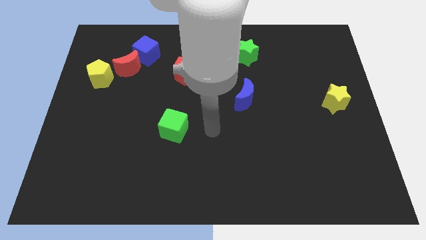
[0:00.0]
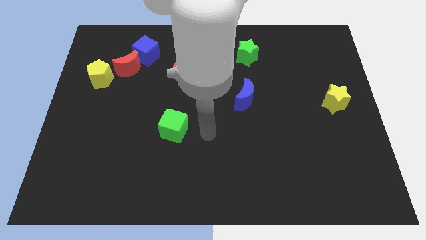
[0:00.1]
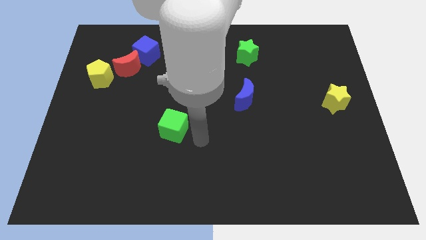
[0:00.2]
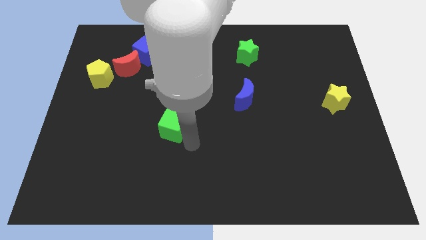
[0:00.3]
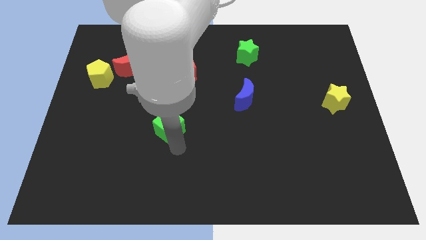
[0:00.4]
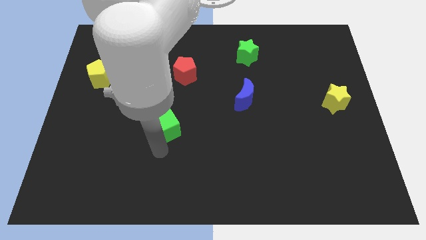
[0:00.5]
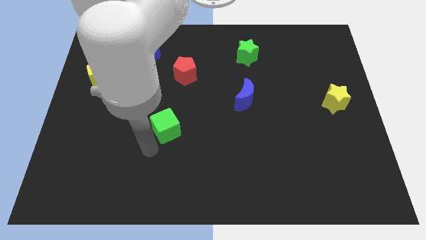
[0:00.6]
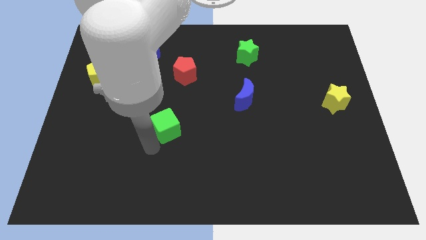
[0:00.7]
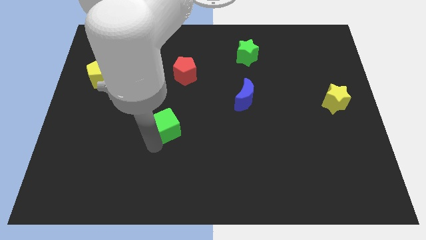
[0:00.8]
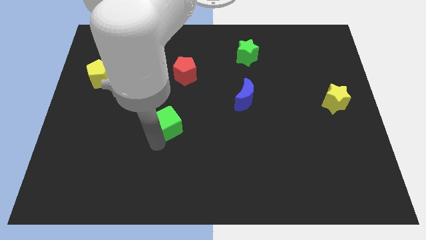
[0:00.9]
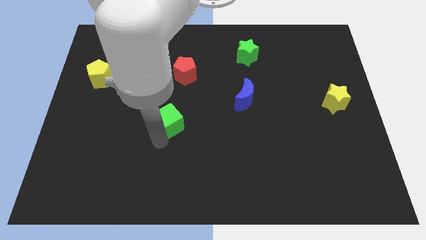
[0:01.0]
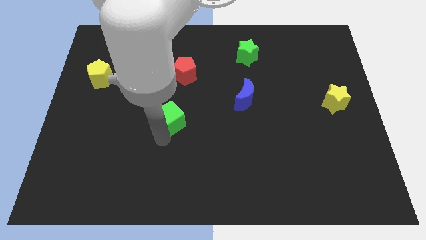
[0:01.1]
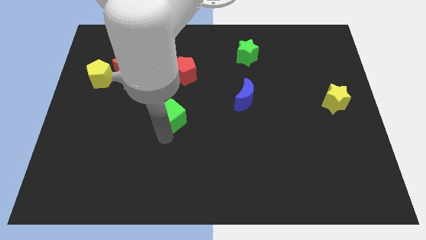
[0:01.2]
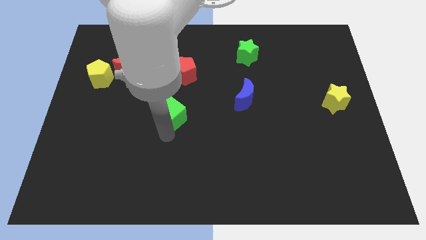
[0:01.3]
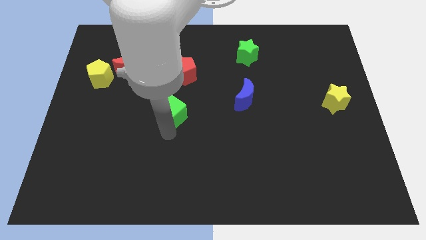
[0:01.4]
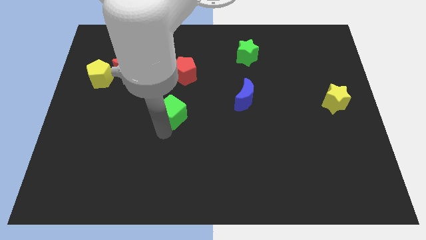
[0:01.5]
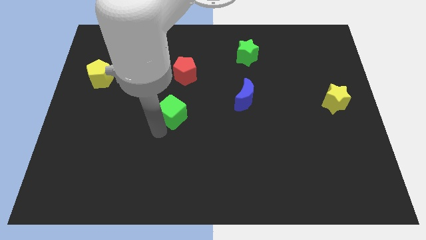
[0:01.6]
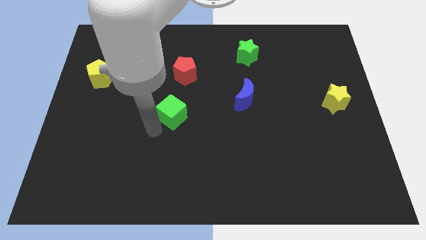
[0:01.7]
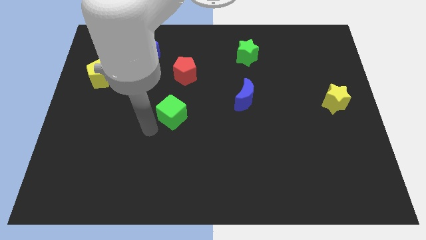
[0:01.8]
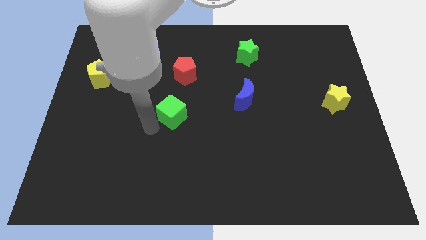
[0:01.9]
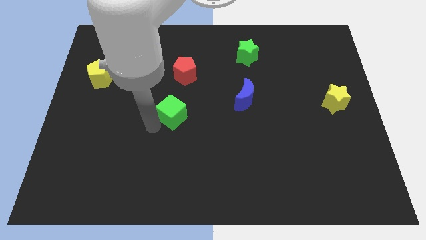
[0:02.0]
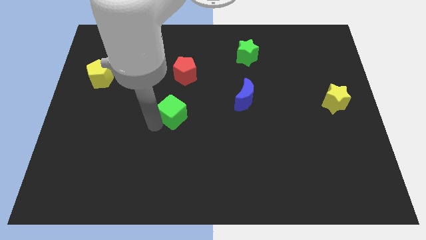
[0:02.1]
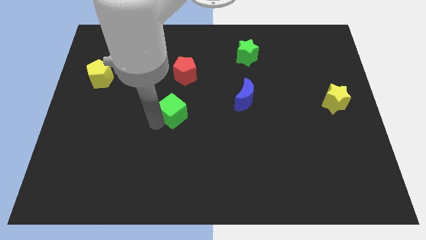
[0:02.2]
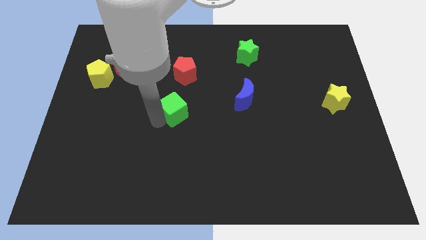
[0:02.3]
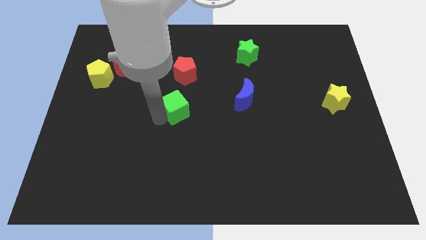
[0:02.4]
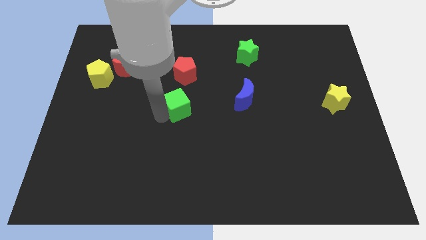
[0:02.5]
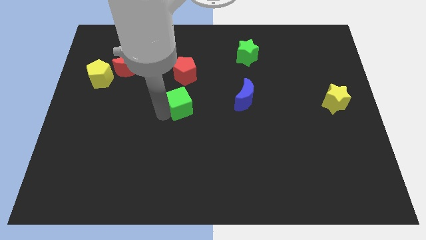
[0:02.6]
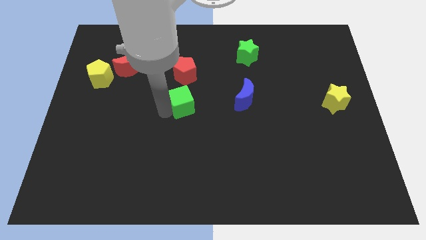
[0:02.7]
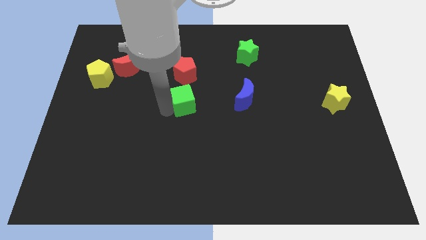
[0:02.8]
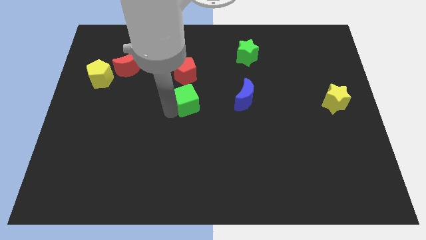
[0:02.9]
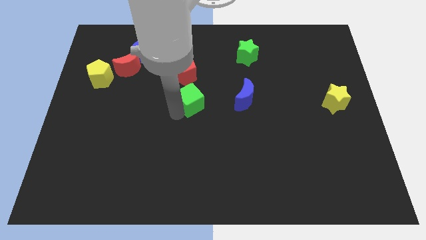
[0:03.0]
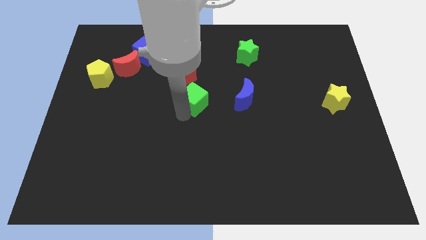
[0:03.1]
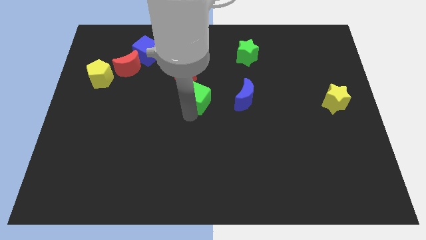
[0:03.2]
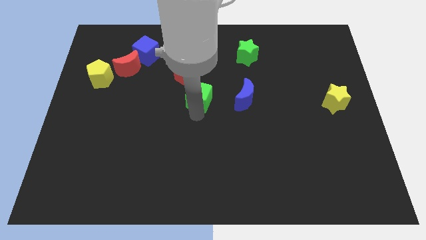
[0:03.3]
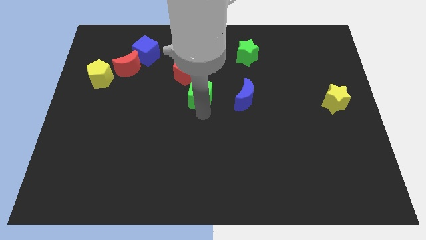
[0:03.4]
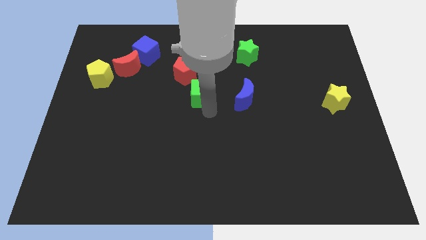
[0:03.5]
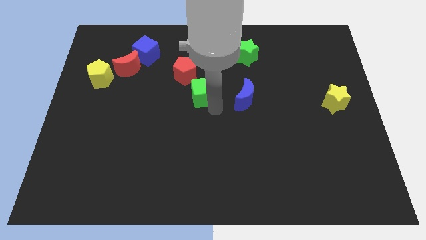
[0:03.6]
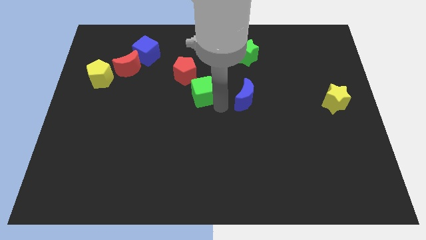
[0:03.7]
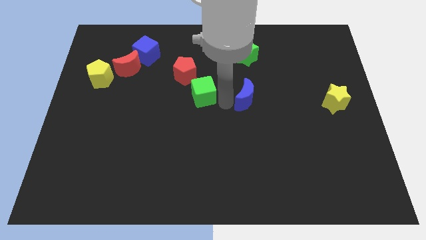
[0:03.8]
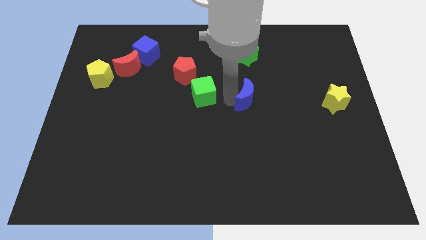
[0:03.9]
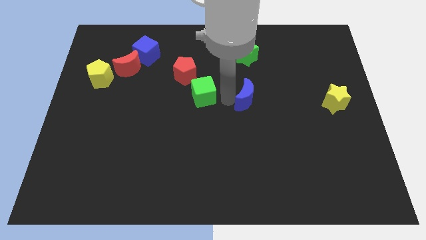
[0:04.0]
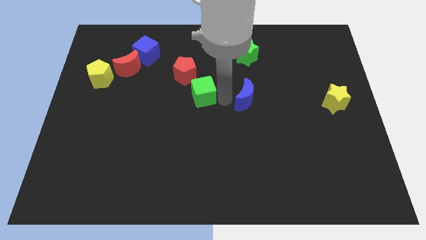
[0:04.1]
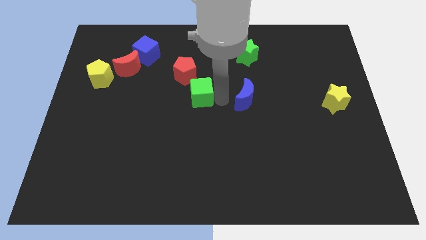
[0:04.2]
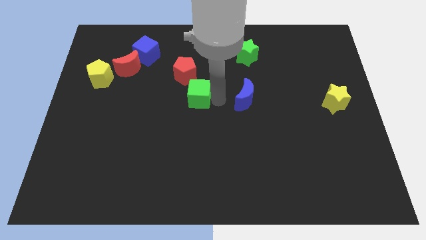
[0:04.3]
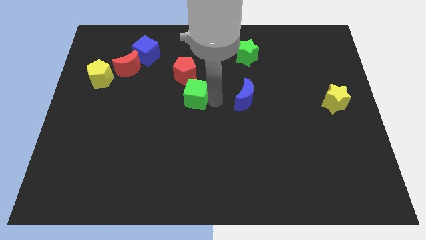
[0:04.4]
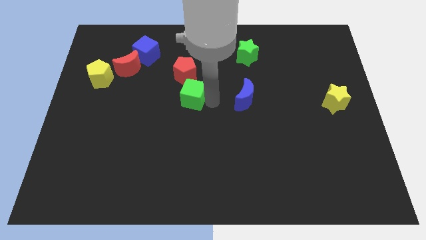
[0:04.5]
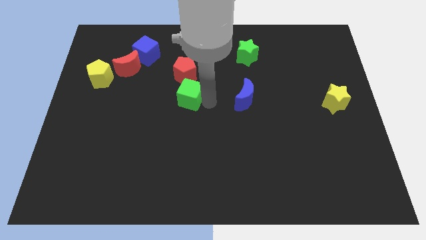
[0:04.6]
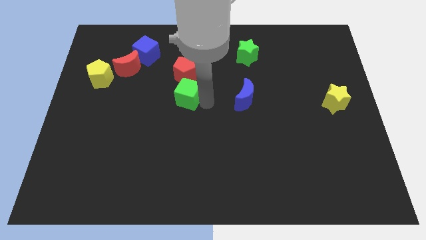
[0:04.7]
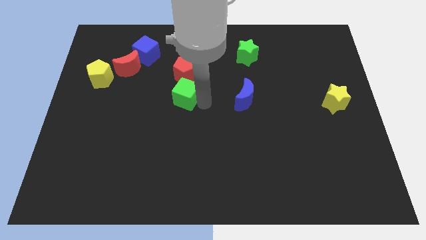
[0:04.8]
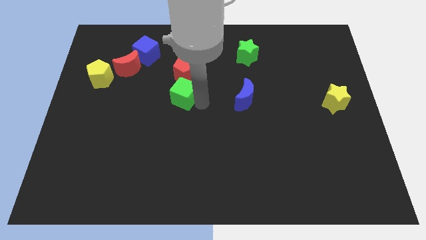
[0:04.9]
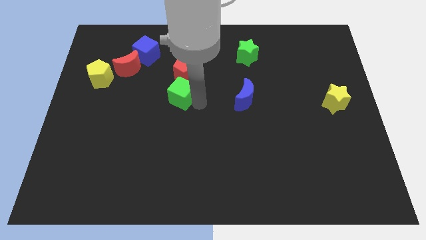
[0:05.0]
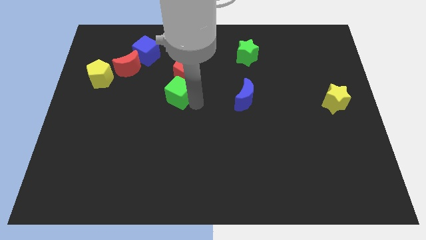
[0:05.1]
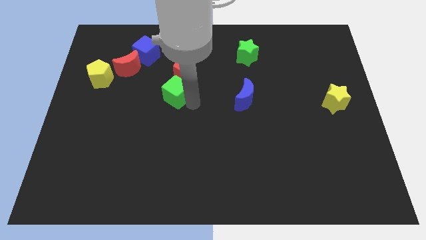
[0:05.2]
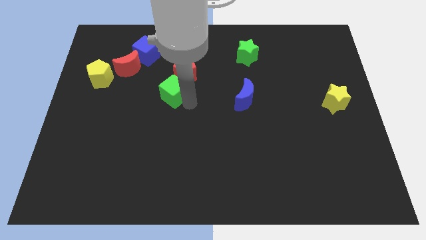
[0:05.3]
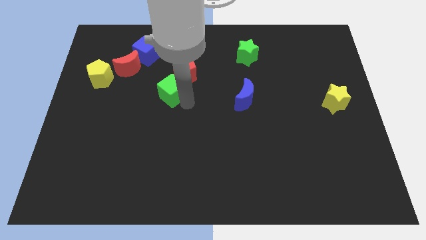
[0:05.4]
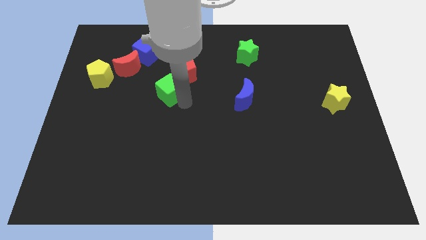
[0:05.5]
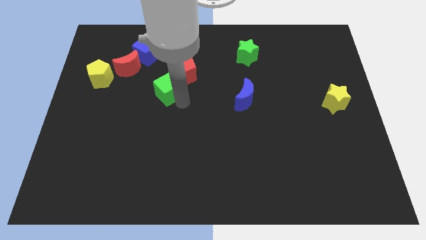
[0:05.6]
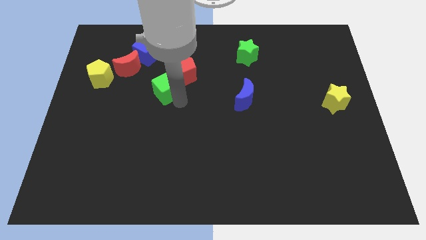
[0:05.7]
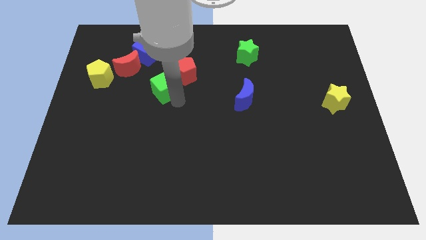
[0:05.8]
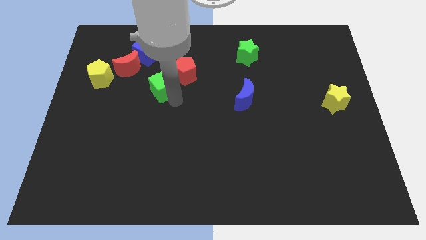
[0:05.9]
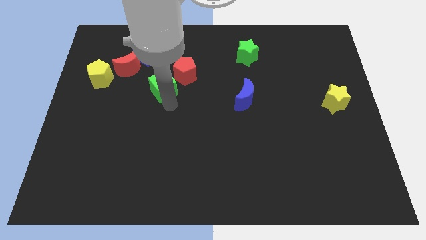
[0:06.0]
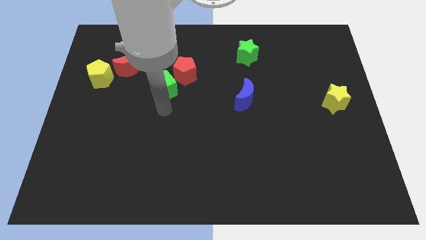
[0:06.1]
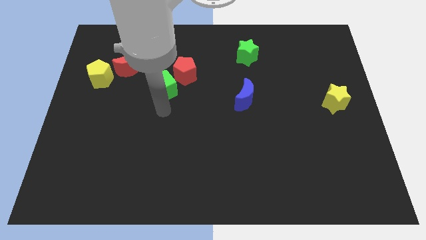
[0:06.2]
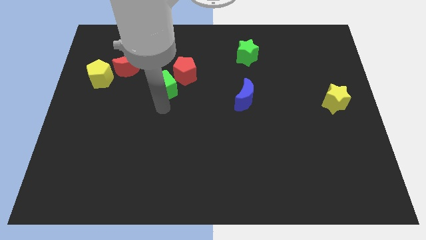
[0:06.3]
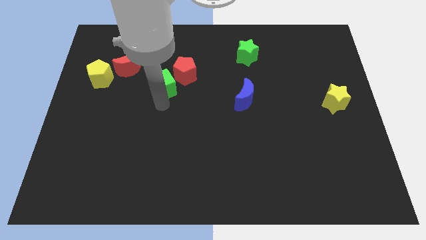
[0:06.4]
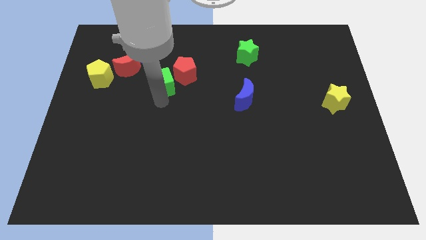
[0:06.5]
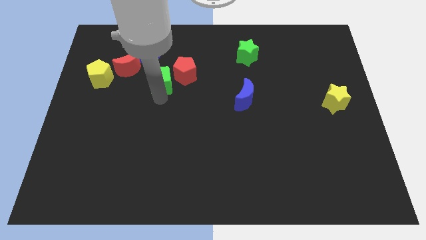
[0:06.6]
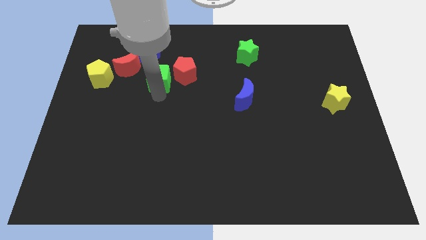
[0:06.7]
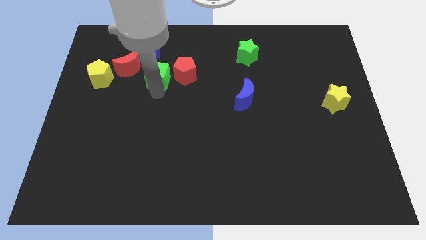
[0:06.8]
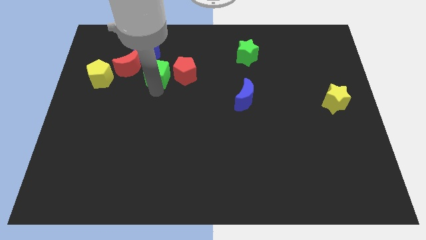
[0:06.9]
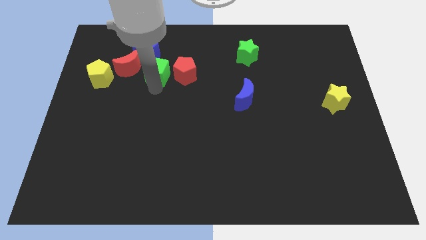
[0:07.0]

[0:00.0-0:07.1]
move the green cube to the top left side of the red pentagon

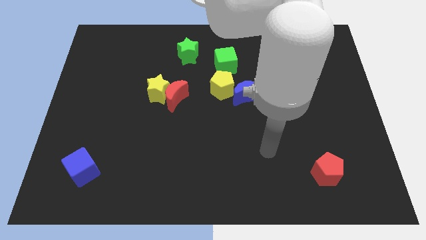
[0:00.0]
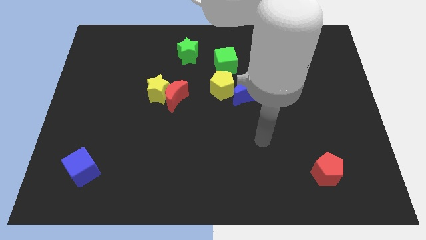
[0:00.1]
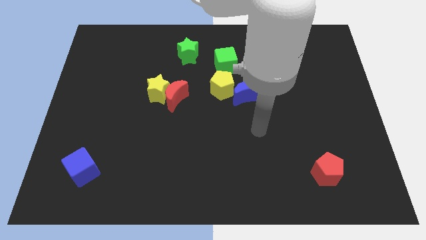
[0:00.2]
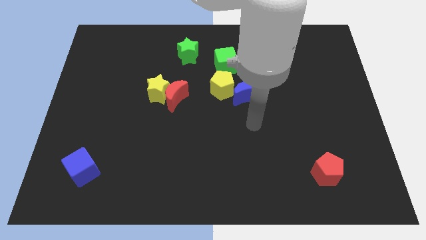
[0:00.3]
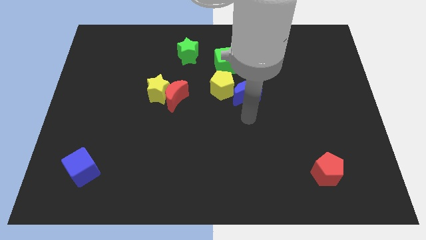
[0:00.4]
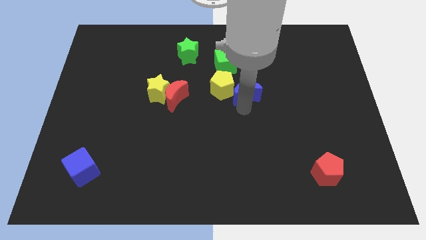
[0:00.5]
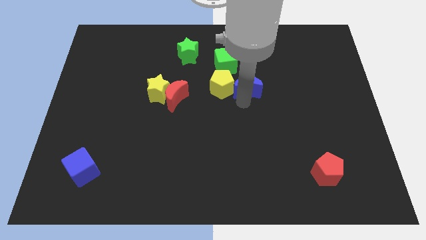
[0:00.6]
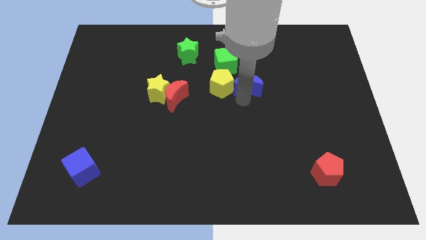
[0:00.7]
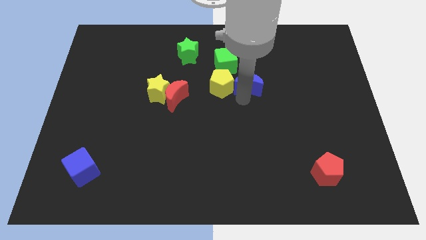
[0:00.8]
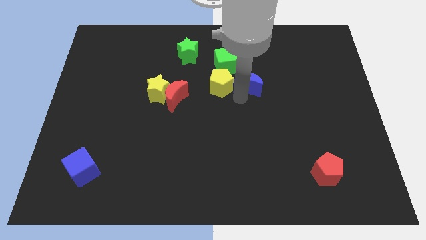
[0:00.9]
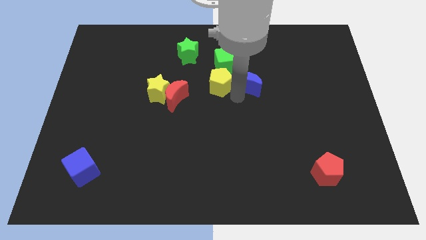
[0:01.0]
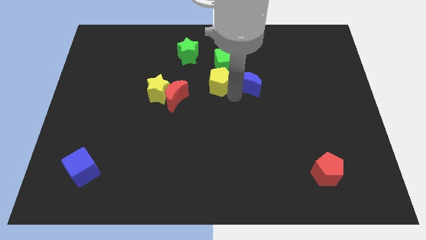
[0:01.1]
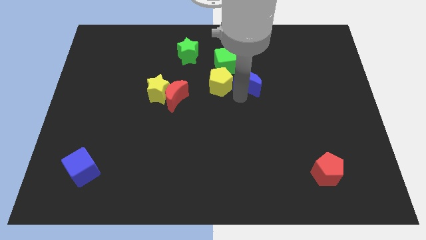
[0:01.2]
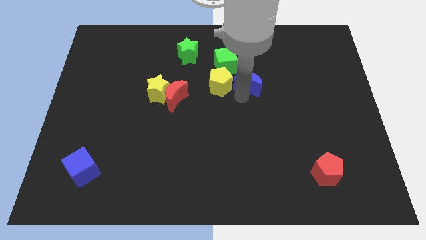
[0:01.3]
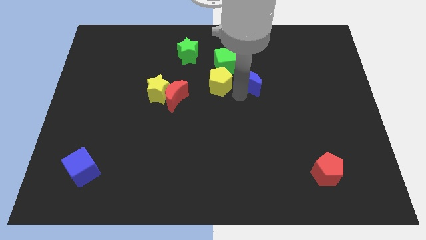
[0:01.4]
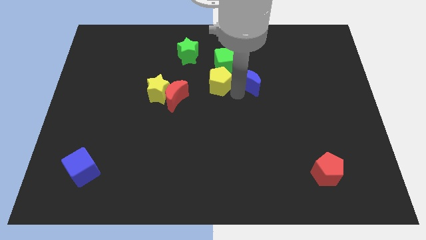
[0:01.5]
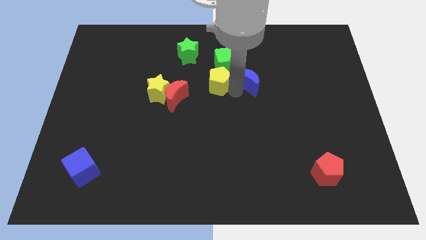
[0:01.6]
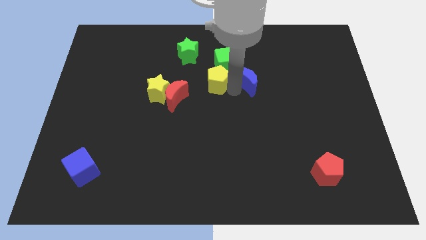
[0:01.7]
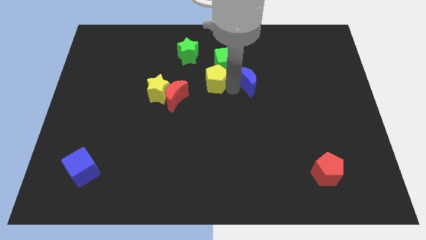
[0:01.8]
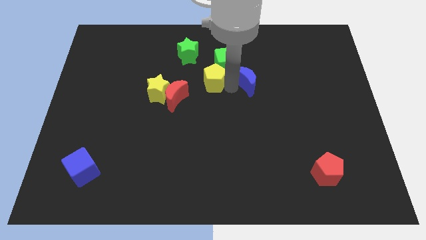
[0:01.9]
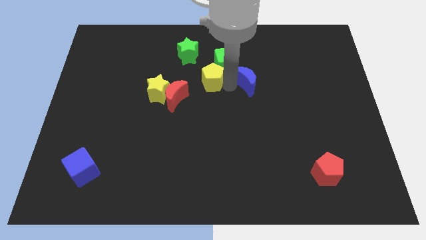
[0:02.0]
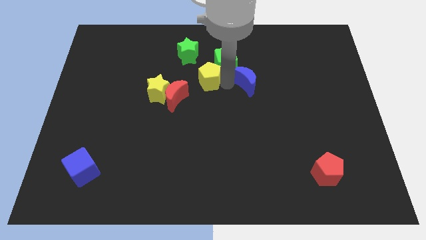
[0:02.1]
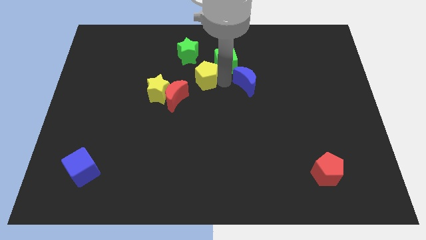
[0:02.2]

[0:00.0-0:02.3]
slide the yellow pentagon just left of the green cube
